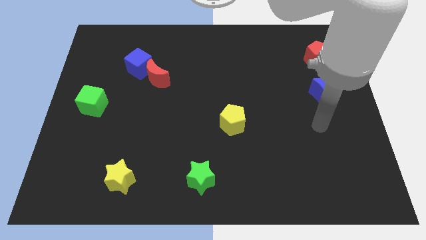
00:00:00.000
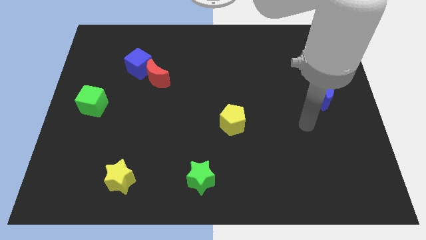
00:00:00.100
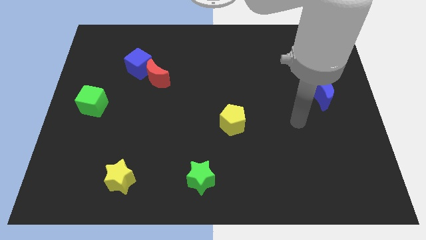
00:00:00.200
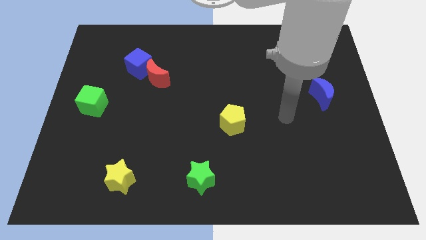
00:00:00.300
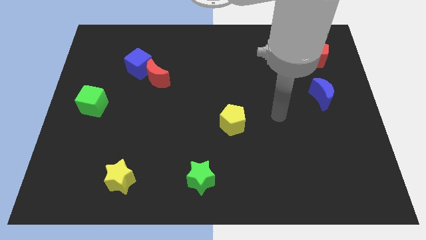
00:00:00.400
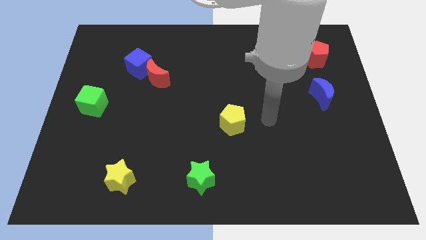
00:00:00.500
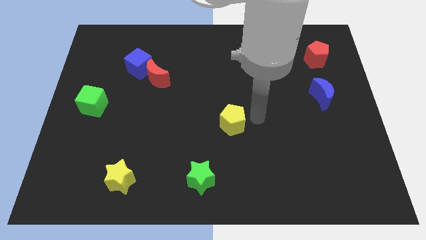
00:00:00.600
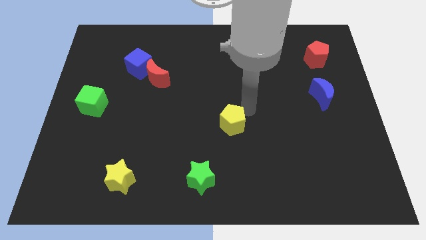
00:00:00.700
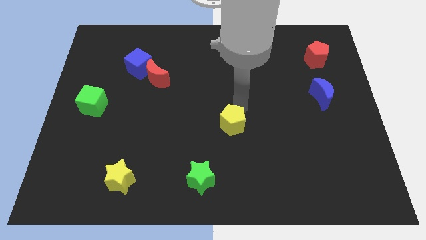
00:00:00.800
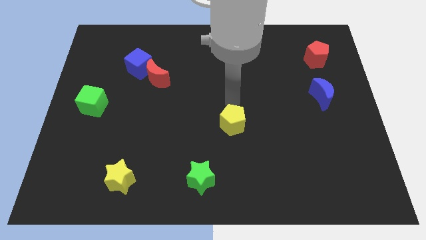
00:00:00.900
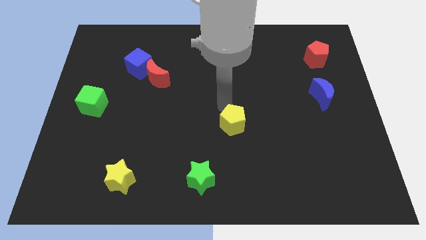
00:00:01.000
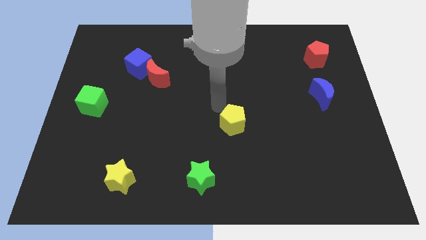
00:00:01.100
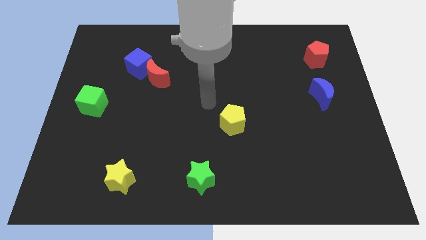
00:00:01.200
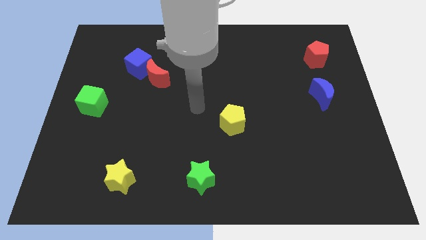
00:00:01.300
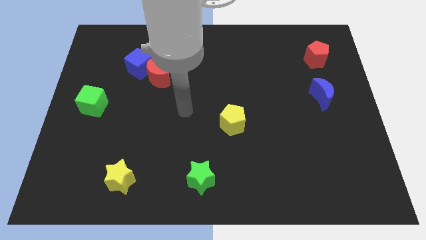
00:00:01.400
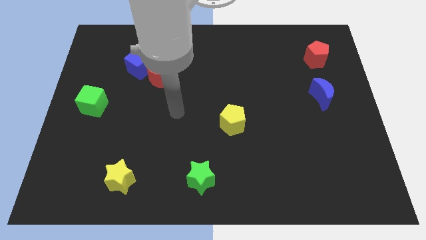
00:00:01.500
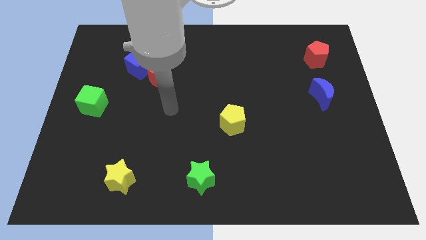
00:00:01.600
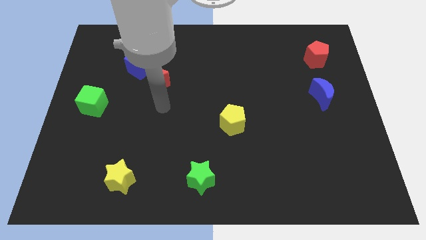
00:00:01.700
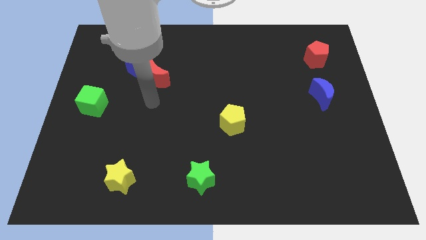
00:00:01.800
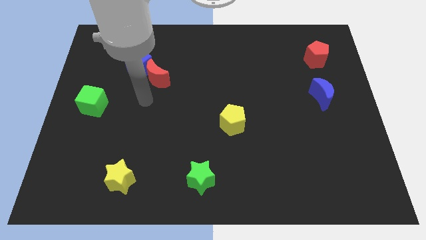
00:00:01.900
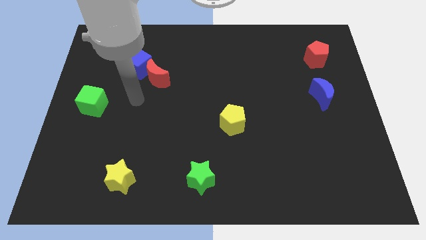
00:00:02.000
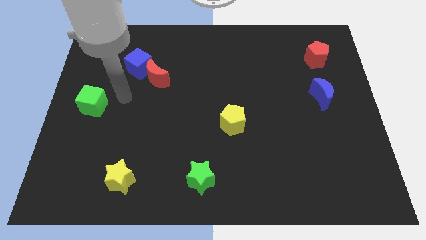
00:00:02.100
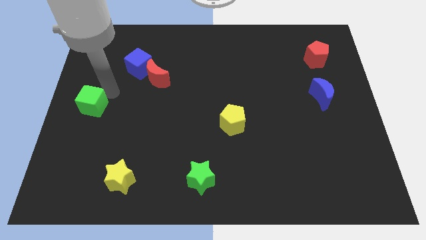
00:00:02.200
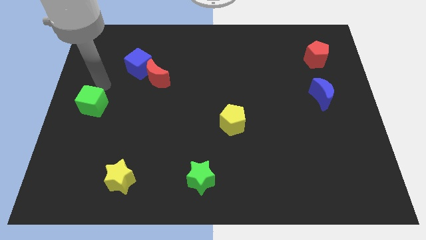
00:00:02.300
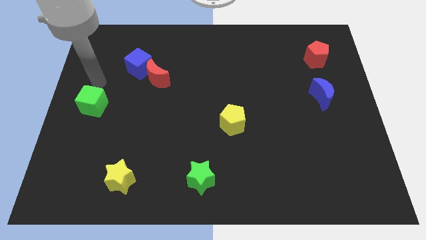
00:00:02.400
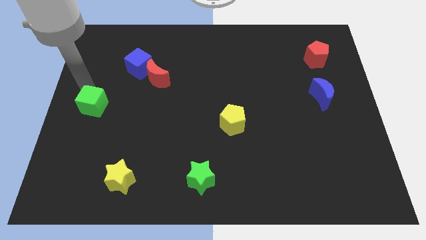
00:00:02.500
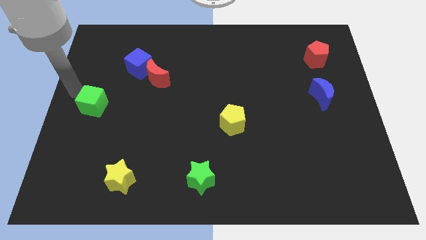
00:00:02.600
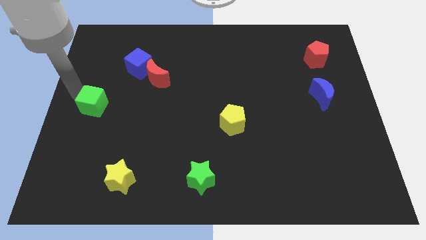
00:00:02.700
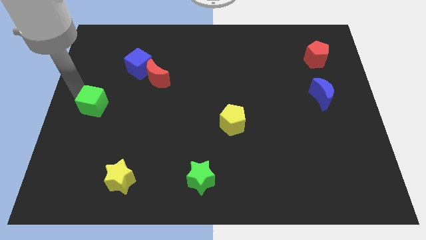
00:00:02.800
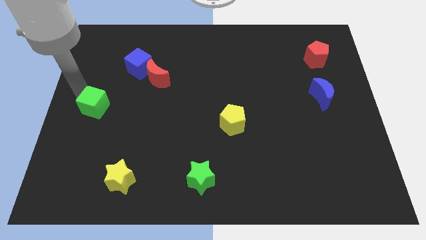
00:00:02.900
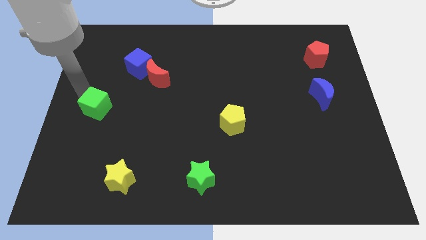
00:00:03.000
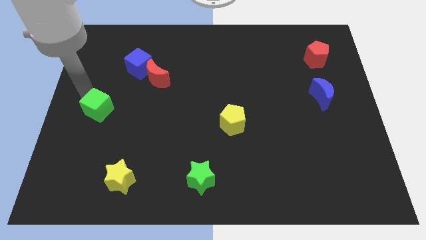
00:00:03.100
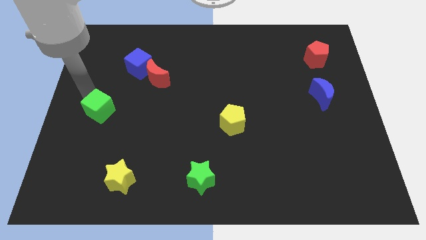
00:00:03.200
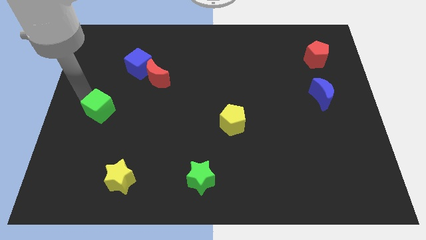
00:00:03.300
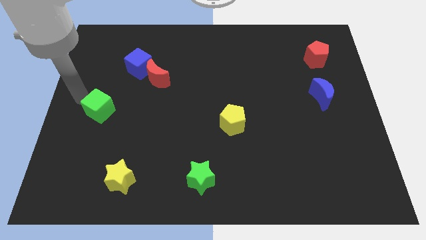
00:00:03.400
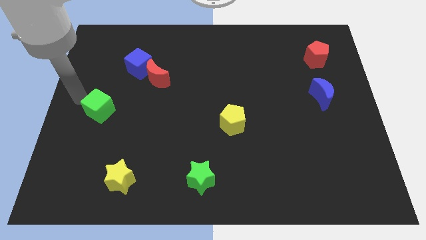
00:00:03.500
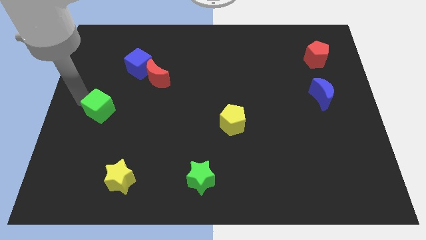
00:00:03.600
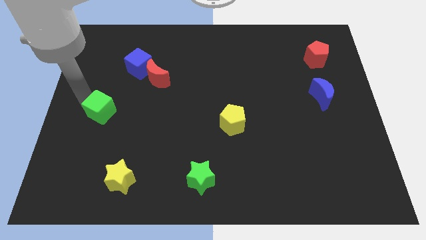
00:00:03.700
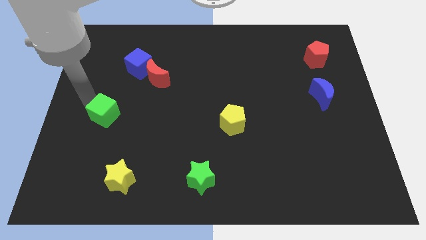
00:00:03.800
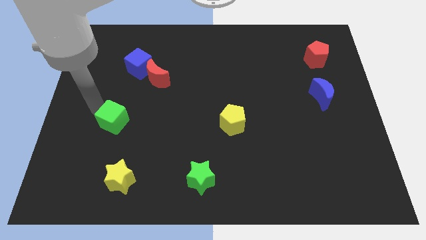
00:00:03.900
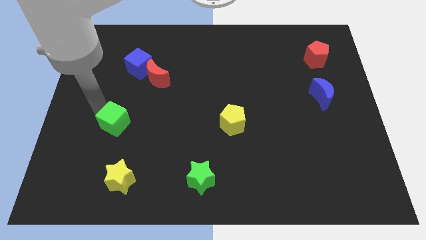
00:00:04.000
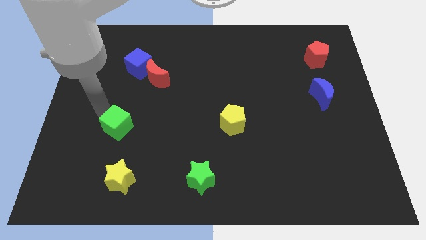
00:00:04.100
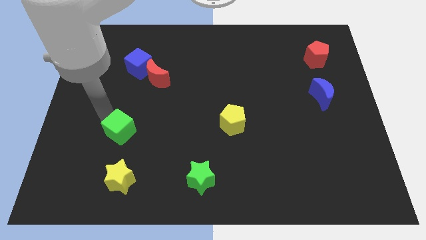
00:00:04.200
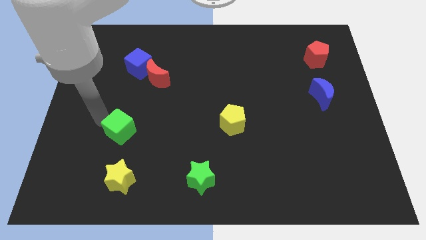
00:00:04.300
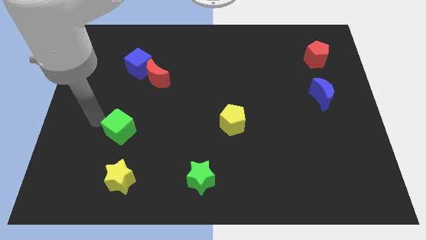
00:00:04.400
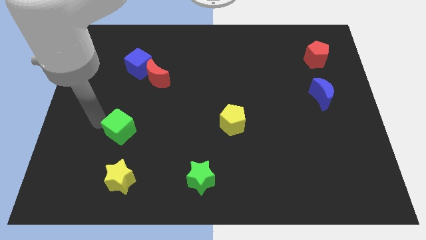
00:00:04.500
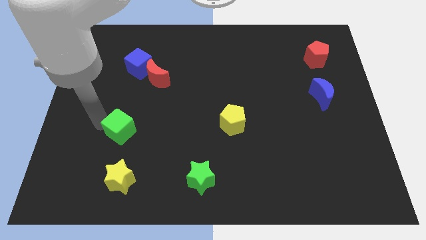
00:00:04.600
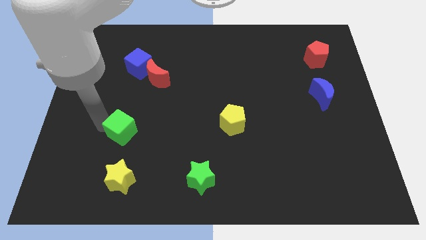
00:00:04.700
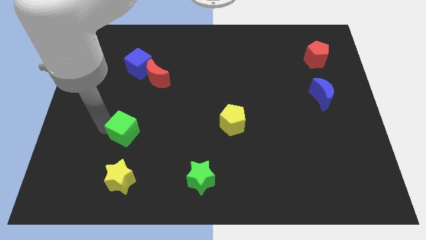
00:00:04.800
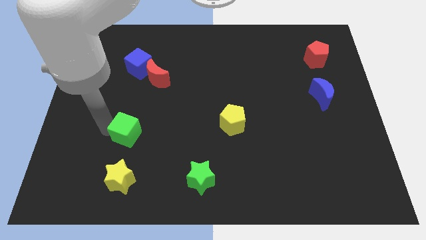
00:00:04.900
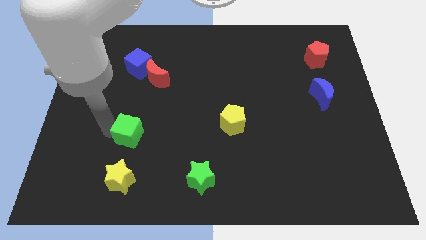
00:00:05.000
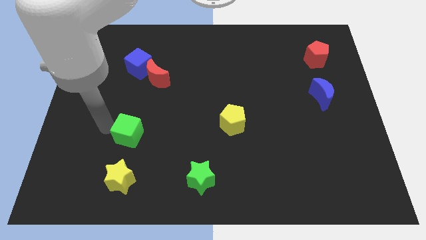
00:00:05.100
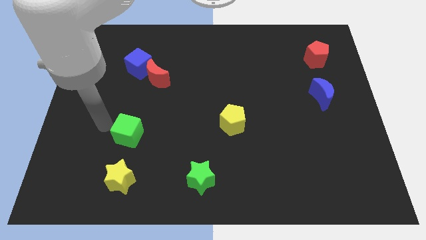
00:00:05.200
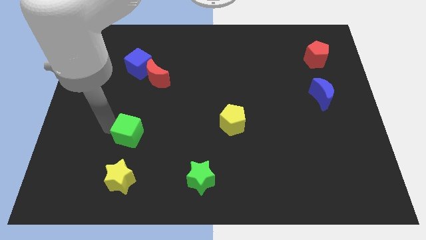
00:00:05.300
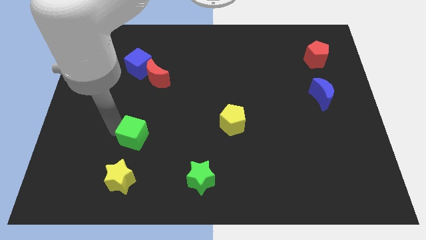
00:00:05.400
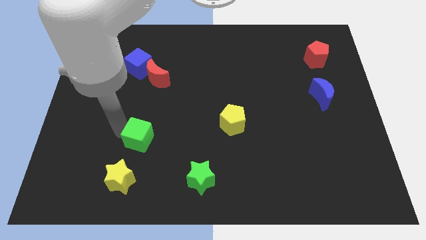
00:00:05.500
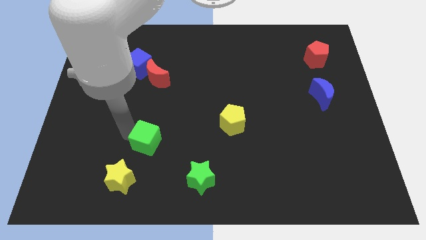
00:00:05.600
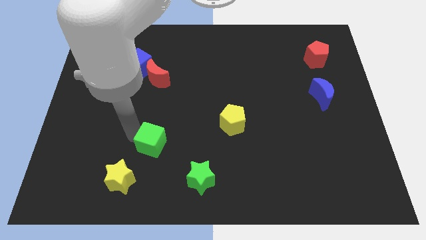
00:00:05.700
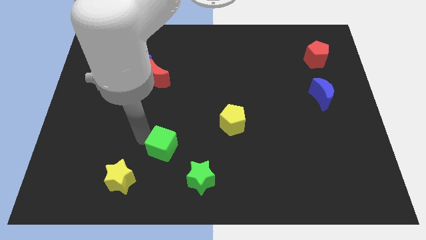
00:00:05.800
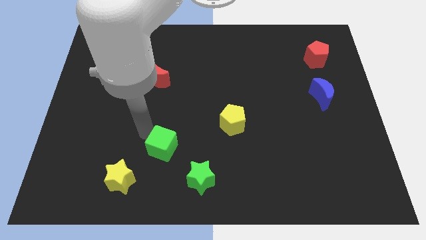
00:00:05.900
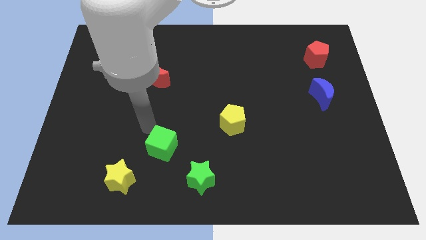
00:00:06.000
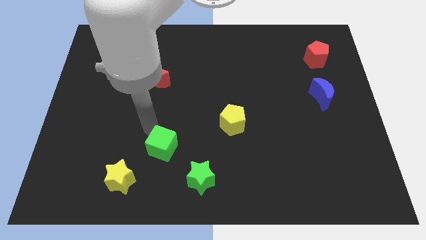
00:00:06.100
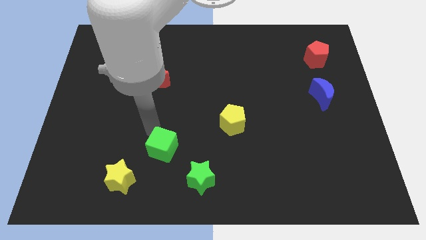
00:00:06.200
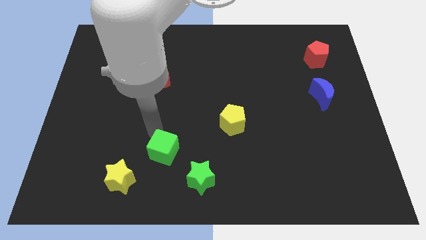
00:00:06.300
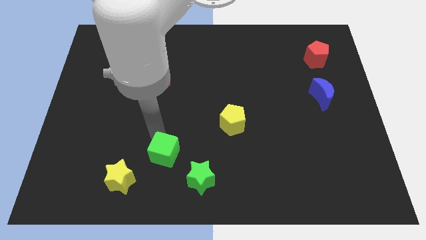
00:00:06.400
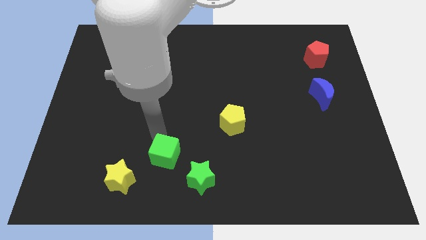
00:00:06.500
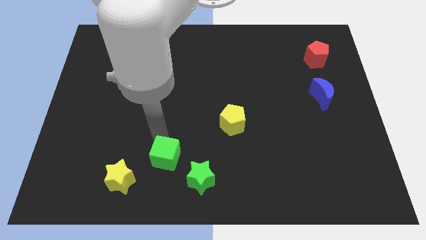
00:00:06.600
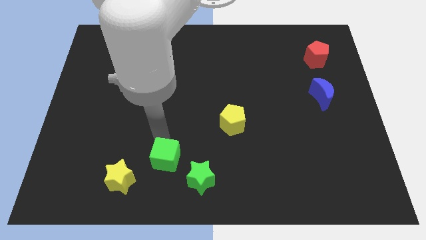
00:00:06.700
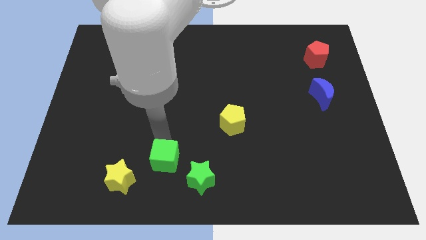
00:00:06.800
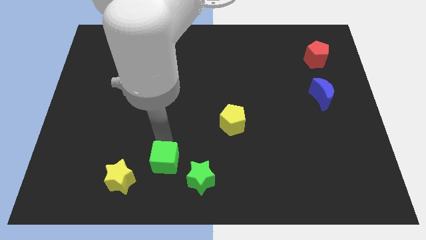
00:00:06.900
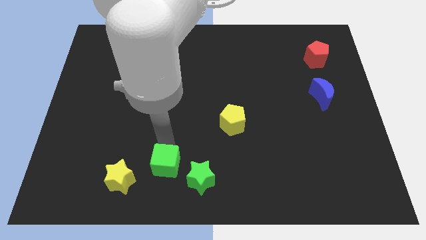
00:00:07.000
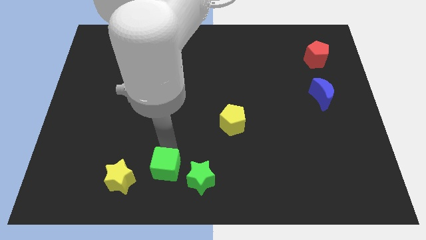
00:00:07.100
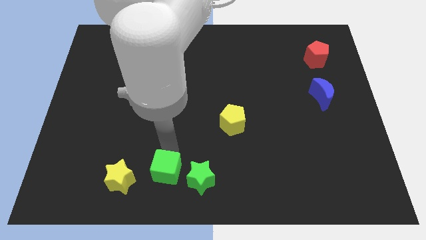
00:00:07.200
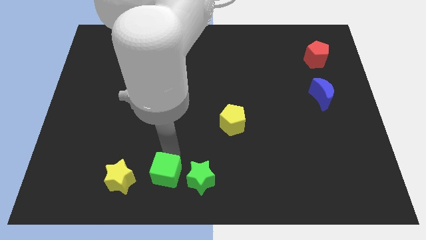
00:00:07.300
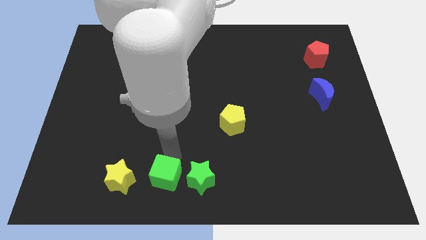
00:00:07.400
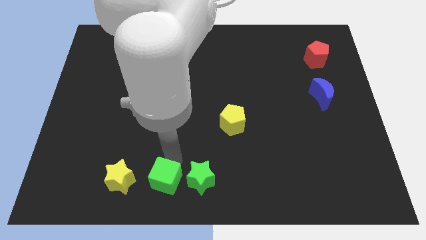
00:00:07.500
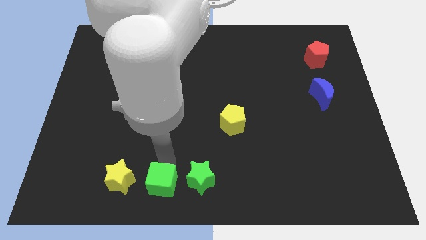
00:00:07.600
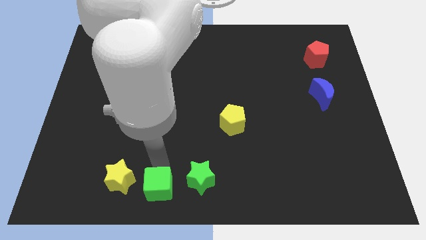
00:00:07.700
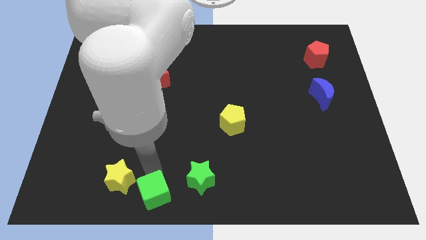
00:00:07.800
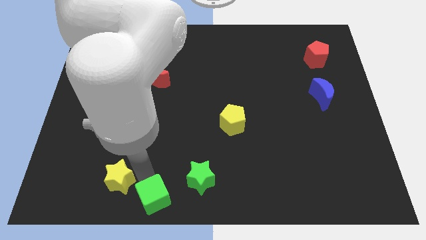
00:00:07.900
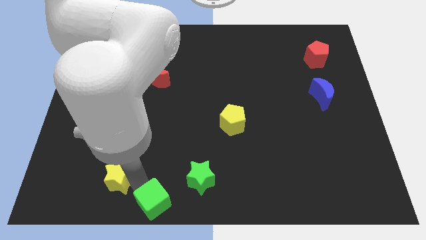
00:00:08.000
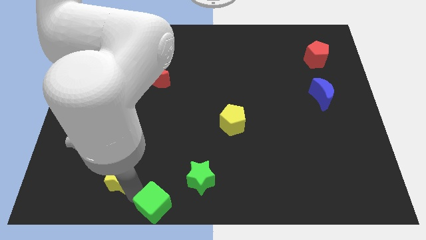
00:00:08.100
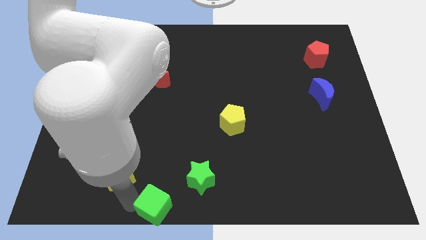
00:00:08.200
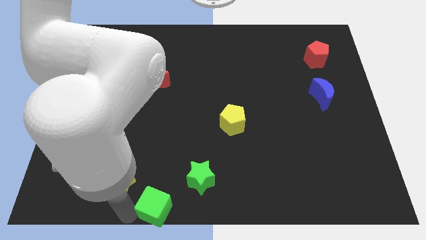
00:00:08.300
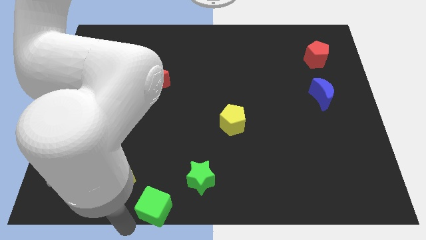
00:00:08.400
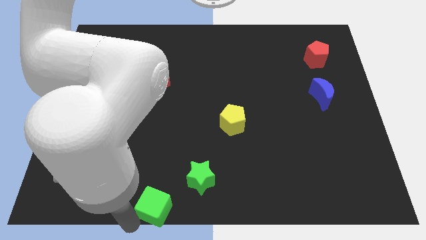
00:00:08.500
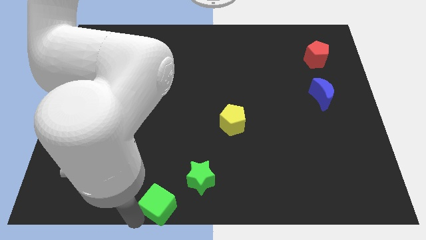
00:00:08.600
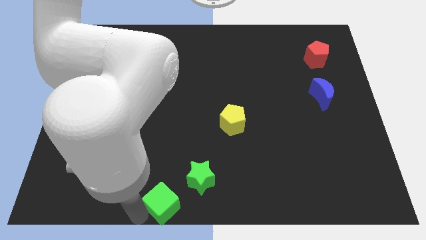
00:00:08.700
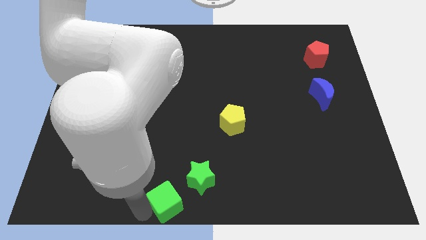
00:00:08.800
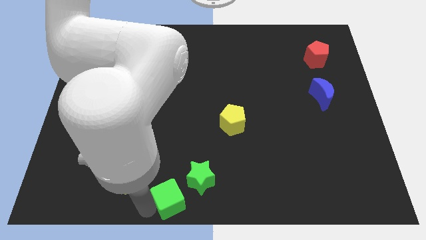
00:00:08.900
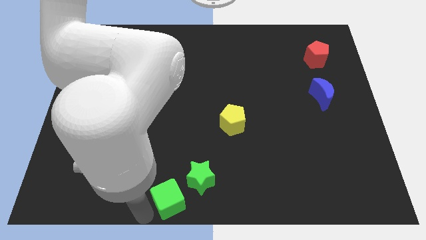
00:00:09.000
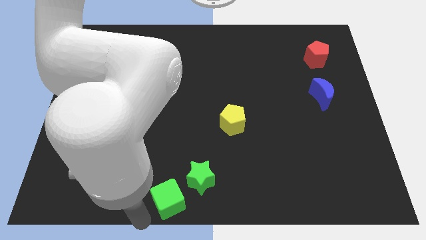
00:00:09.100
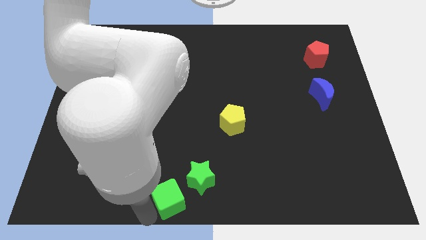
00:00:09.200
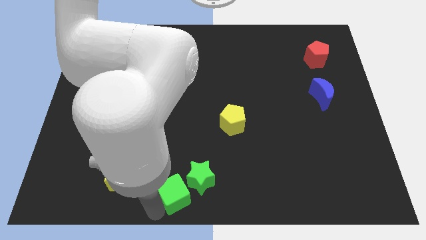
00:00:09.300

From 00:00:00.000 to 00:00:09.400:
slide the green cube to the green star
